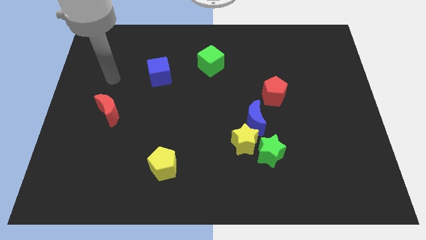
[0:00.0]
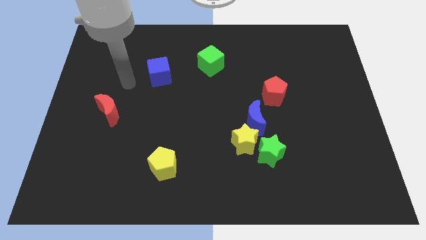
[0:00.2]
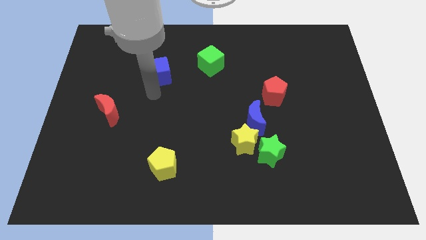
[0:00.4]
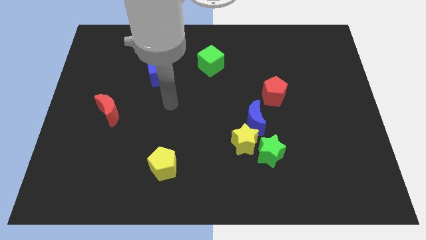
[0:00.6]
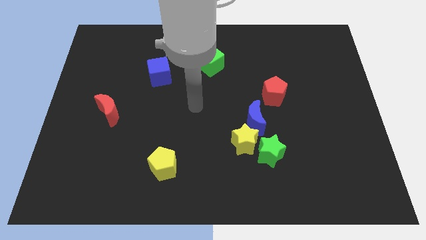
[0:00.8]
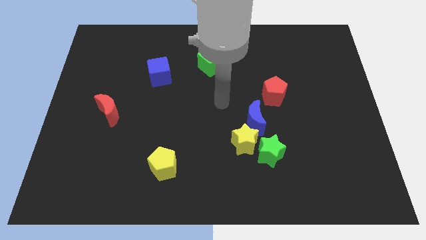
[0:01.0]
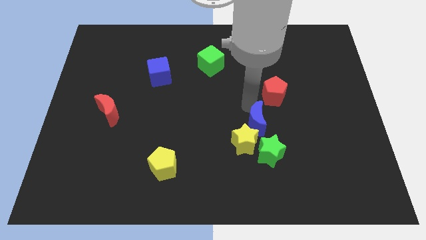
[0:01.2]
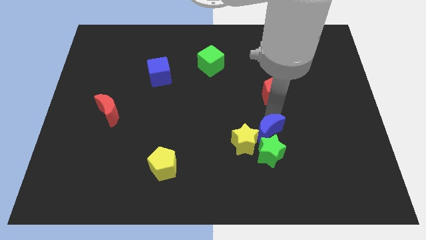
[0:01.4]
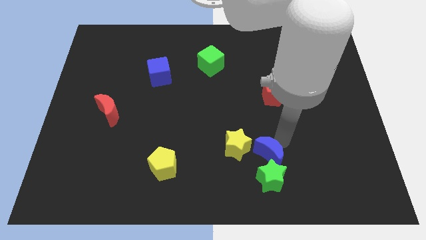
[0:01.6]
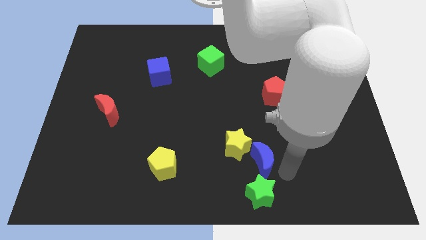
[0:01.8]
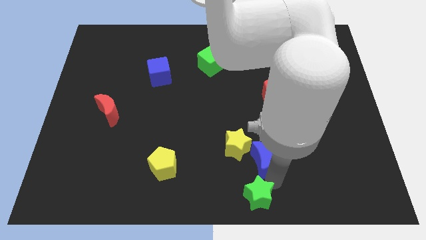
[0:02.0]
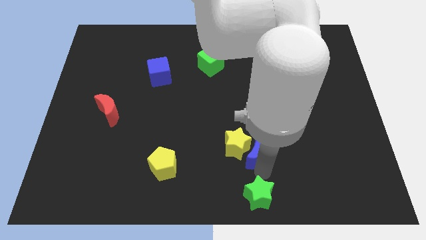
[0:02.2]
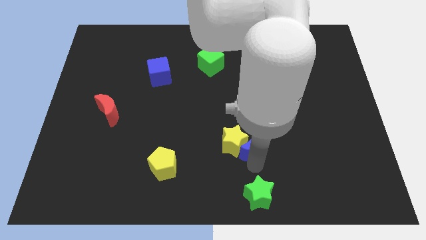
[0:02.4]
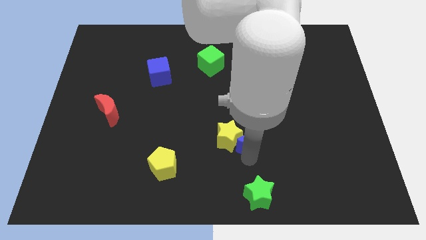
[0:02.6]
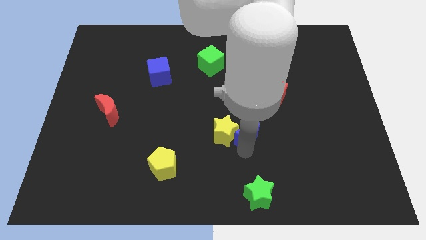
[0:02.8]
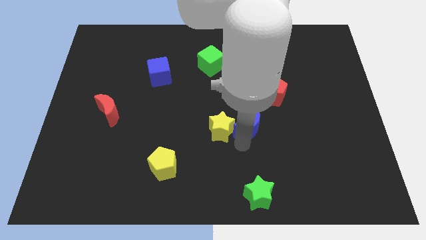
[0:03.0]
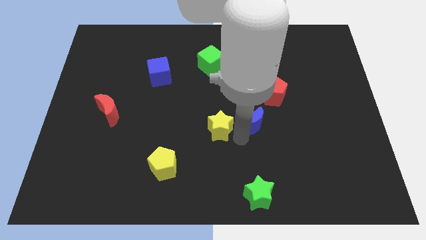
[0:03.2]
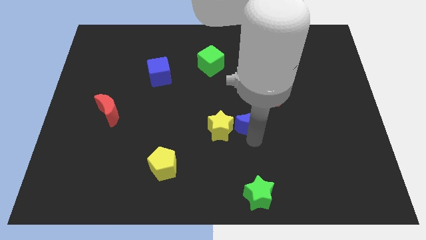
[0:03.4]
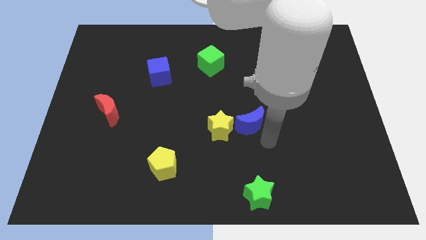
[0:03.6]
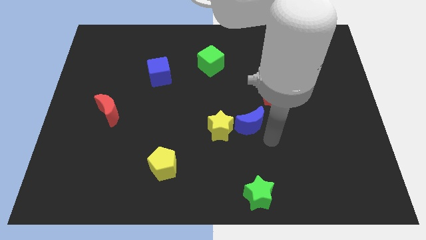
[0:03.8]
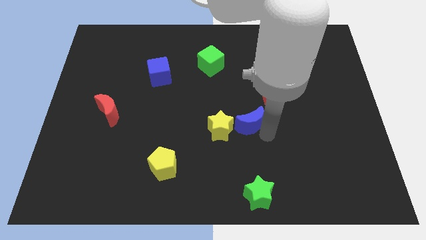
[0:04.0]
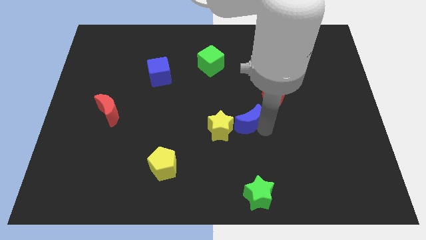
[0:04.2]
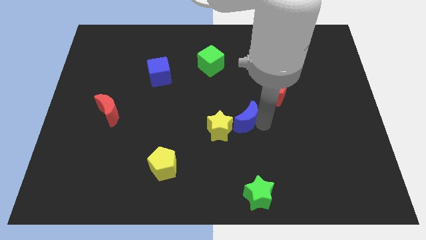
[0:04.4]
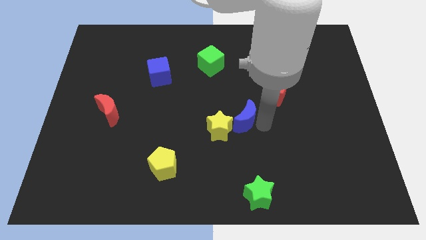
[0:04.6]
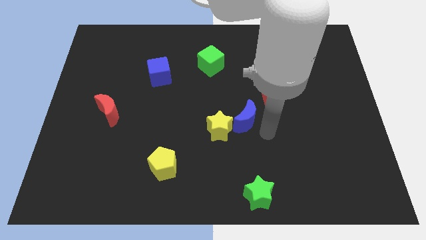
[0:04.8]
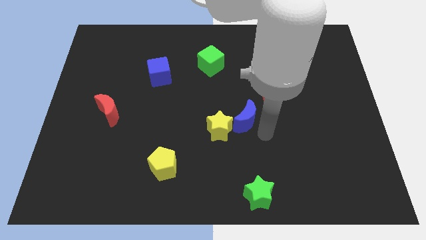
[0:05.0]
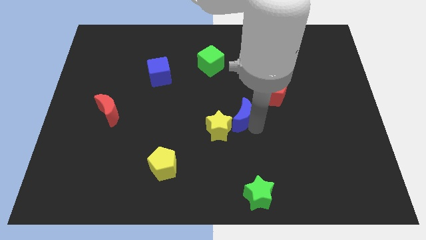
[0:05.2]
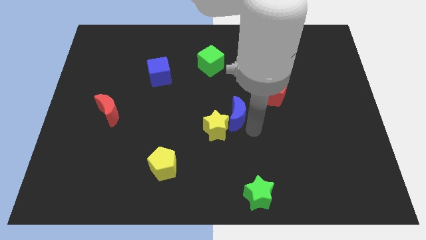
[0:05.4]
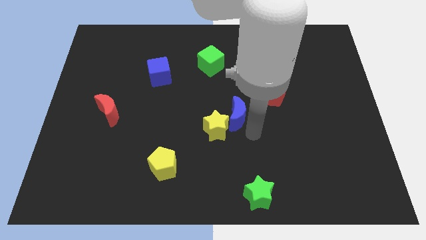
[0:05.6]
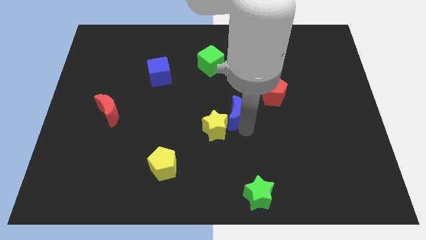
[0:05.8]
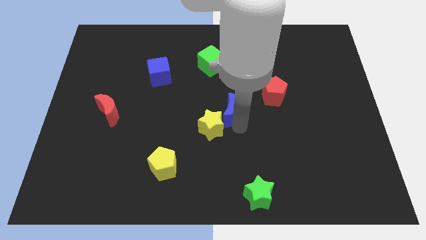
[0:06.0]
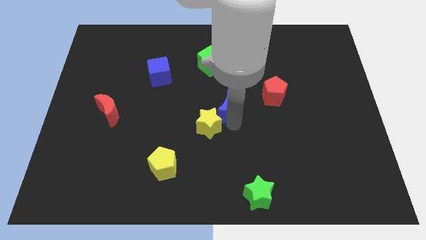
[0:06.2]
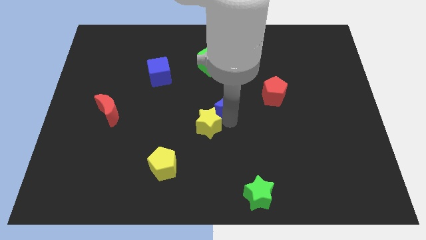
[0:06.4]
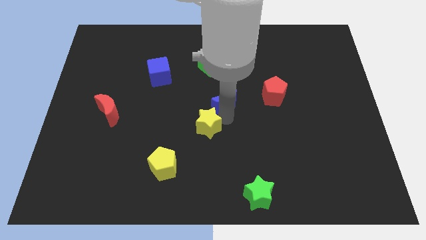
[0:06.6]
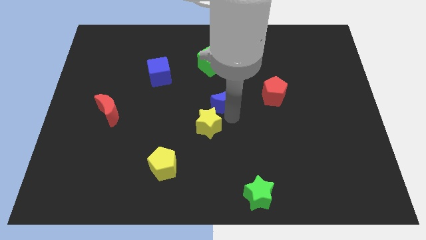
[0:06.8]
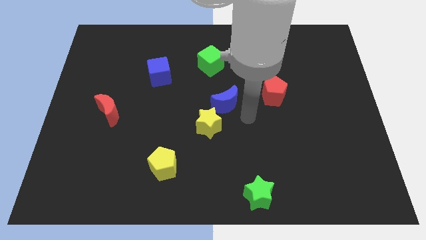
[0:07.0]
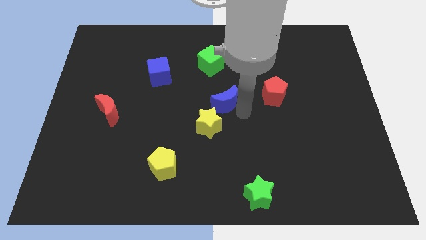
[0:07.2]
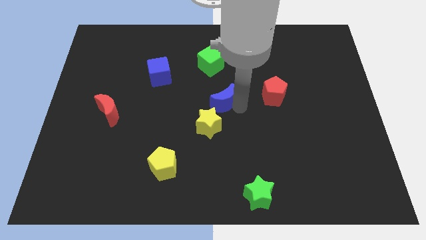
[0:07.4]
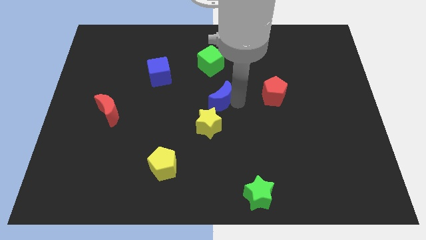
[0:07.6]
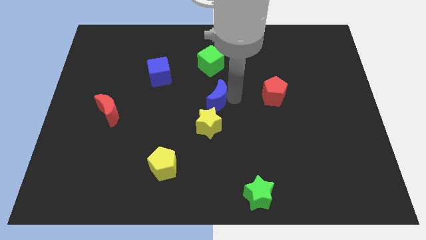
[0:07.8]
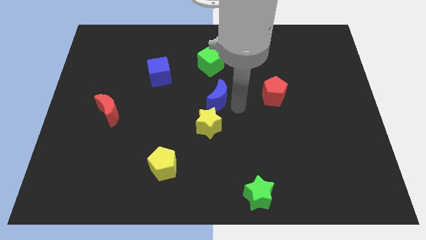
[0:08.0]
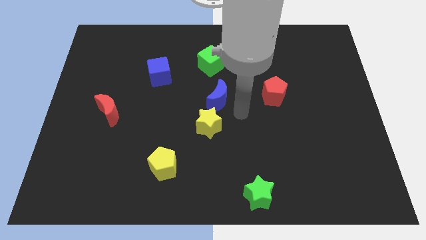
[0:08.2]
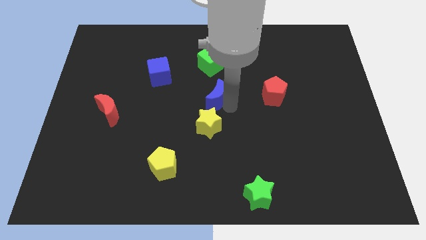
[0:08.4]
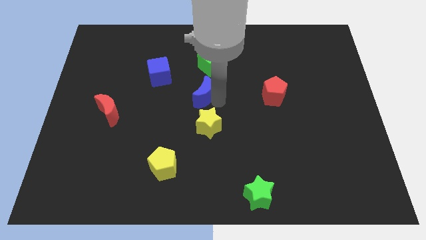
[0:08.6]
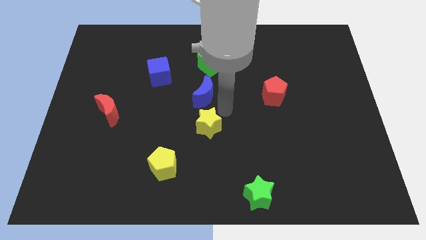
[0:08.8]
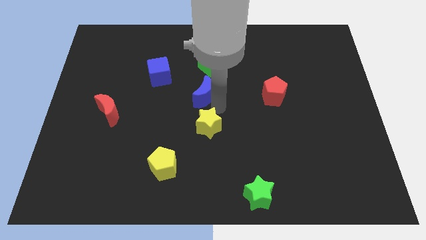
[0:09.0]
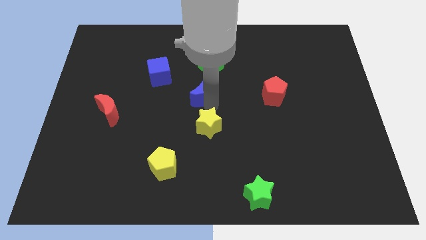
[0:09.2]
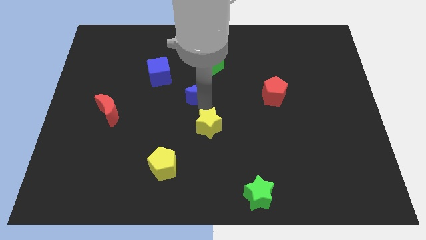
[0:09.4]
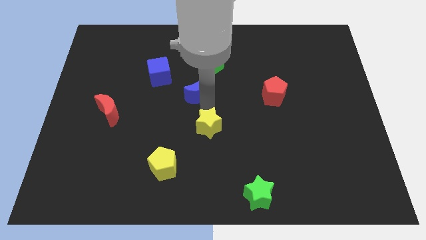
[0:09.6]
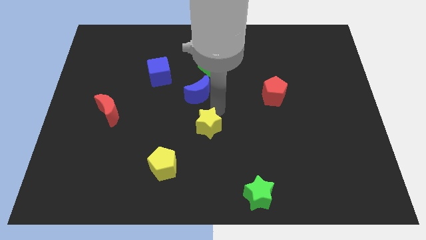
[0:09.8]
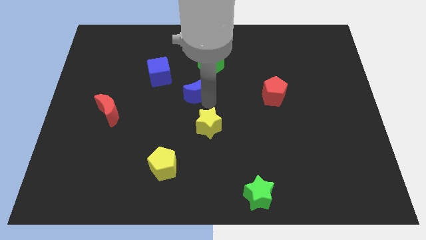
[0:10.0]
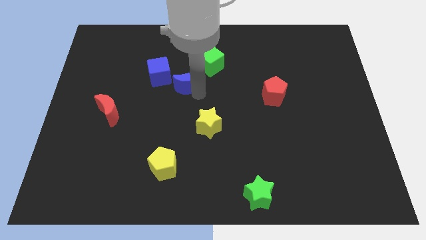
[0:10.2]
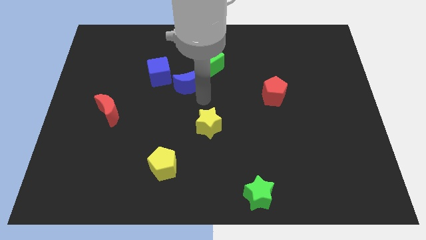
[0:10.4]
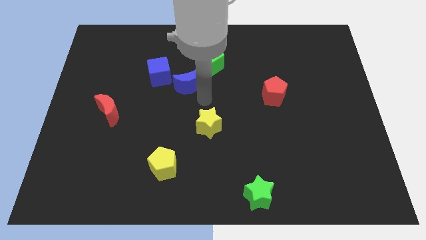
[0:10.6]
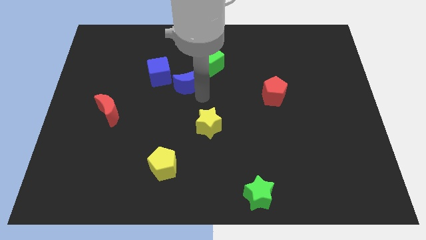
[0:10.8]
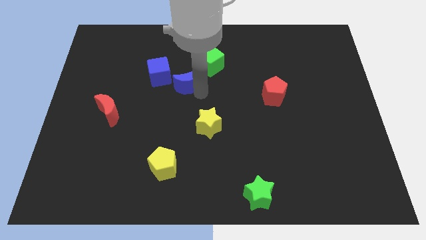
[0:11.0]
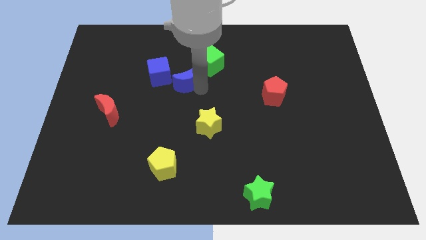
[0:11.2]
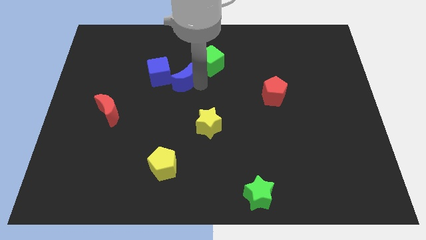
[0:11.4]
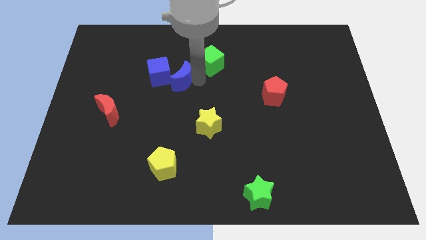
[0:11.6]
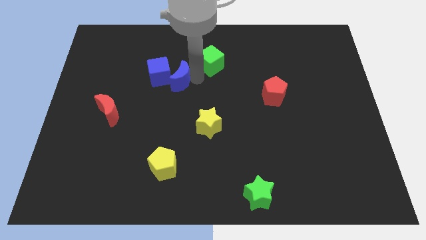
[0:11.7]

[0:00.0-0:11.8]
put the blue moon next to the blue cube
